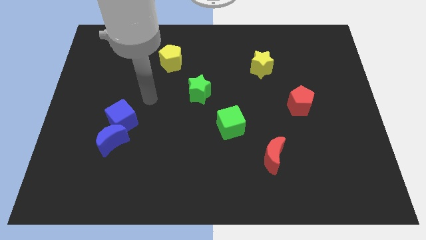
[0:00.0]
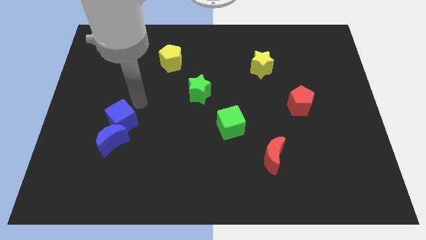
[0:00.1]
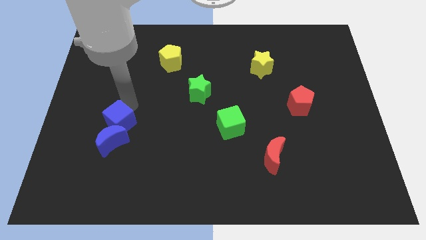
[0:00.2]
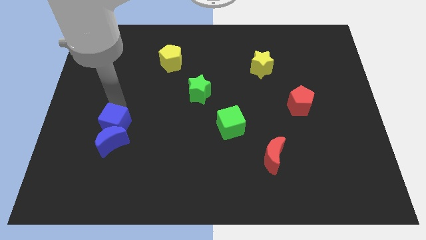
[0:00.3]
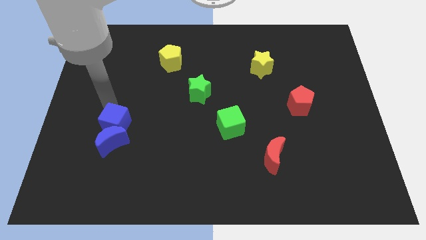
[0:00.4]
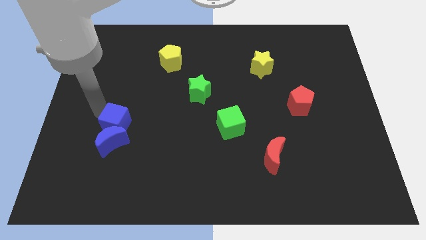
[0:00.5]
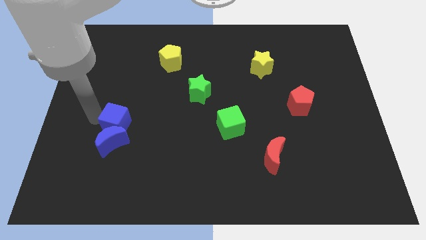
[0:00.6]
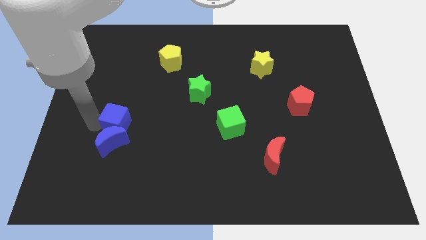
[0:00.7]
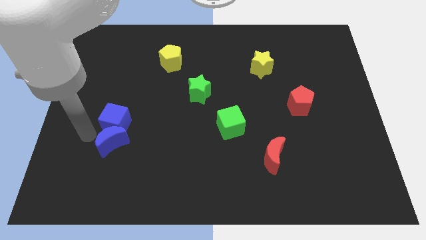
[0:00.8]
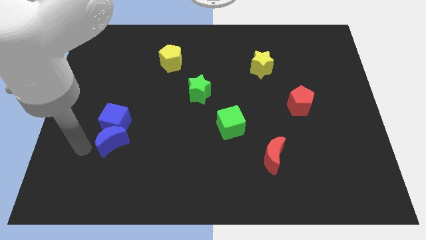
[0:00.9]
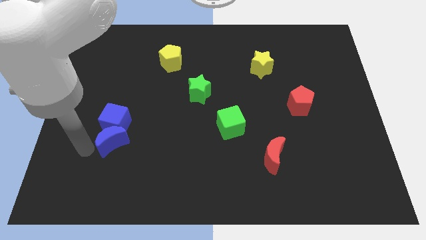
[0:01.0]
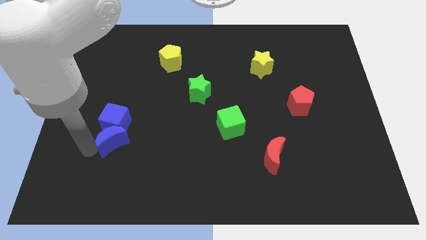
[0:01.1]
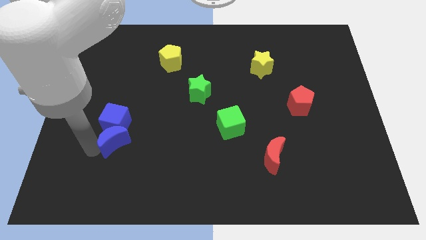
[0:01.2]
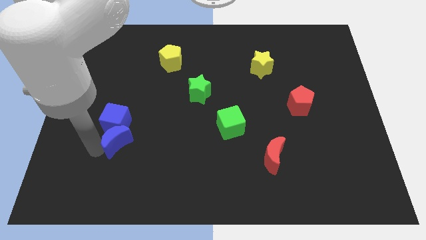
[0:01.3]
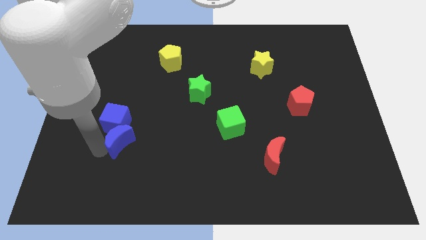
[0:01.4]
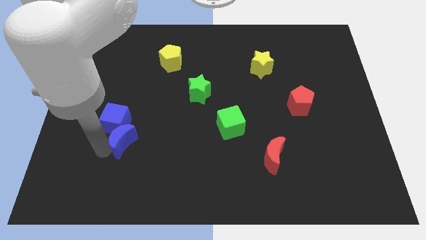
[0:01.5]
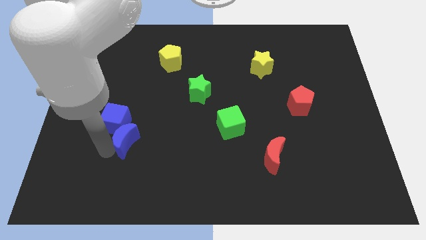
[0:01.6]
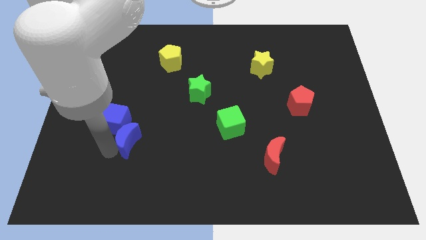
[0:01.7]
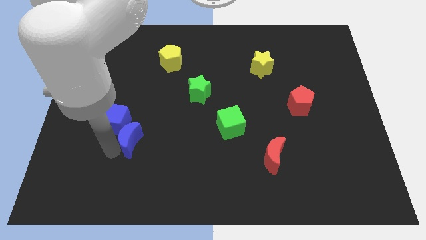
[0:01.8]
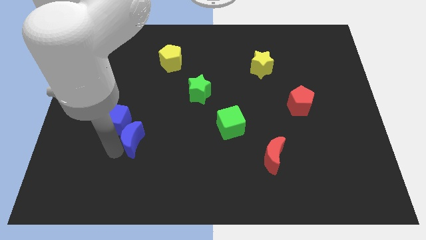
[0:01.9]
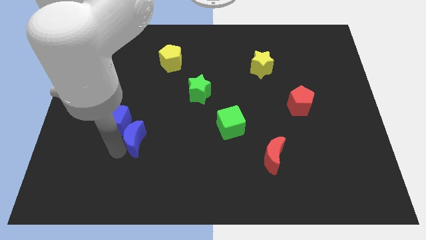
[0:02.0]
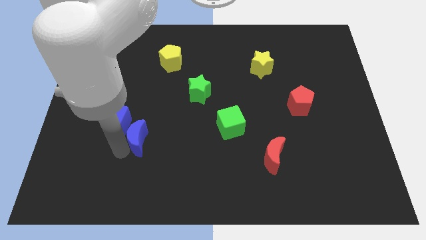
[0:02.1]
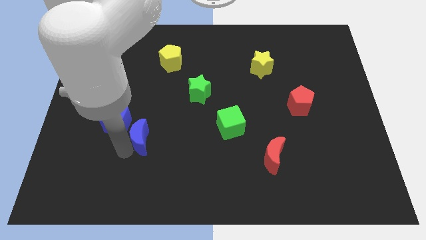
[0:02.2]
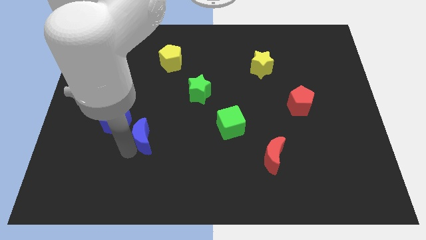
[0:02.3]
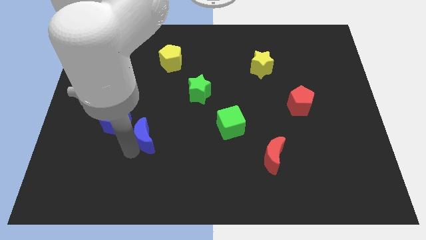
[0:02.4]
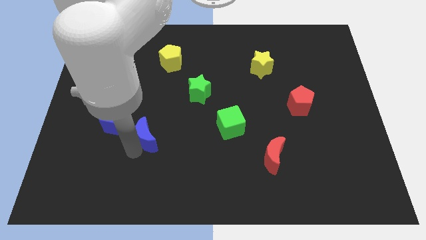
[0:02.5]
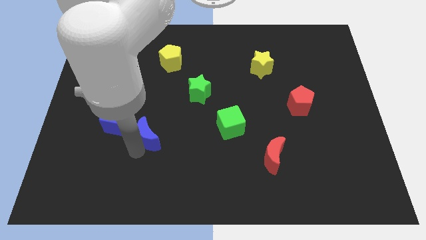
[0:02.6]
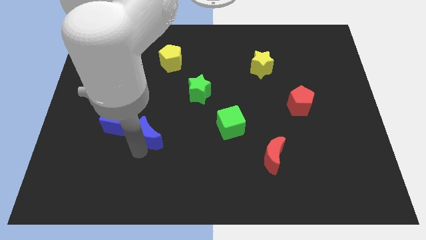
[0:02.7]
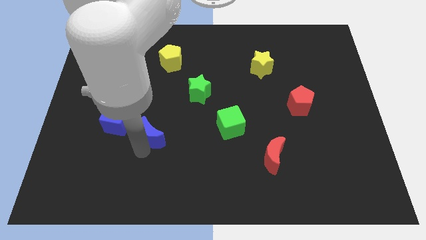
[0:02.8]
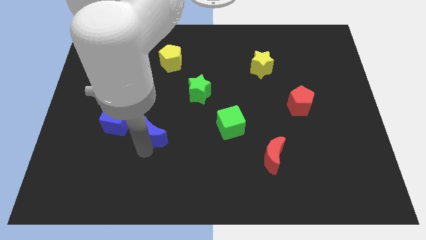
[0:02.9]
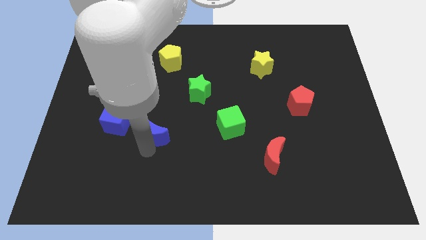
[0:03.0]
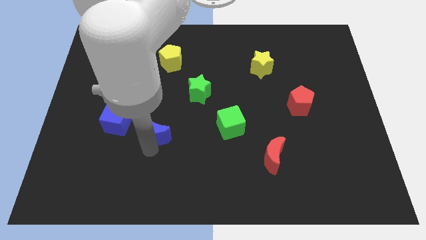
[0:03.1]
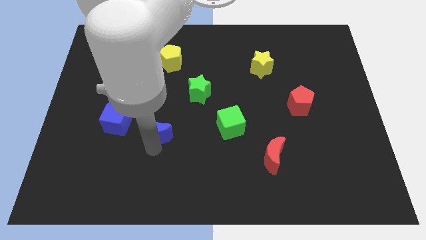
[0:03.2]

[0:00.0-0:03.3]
push the blue moon a little up and to the right

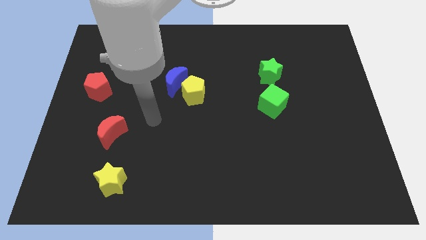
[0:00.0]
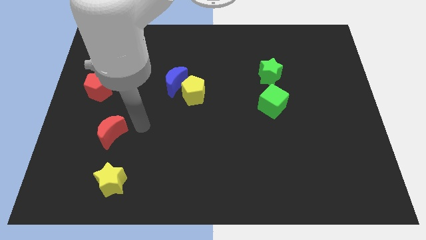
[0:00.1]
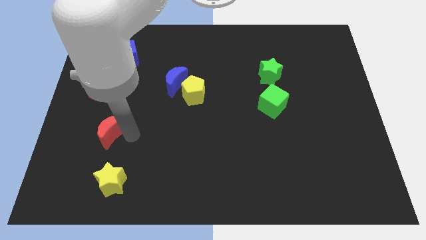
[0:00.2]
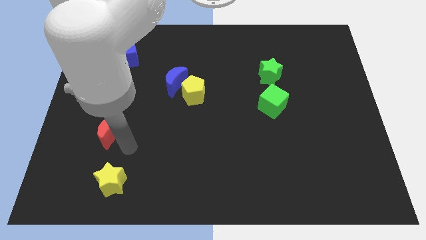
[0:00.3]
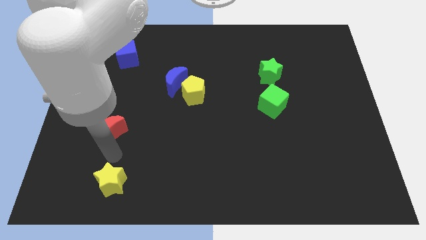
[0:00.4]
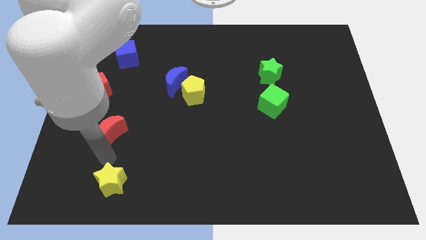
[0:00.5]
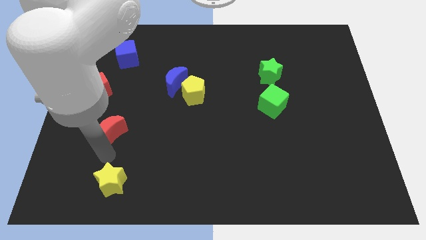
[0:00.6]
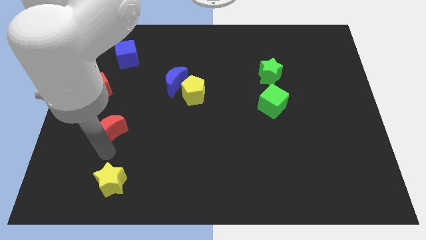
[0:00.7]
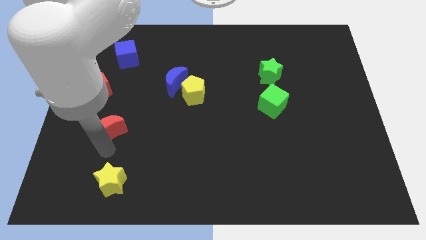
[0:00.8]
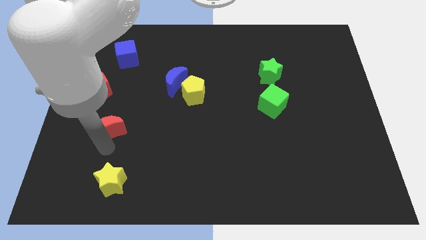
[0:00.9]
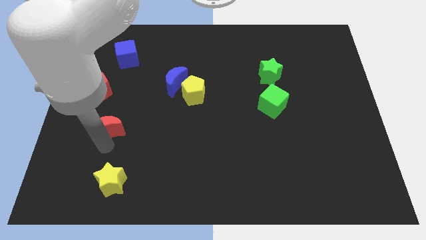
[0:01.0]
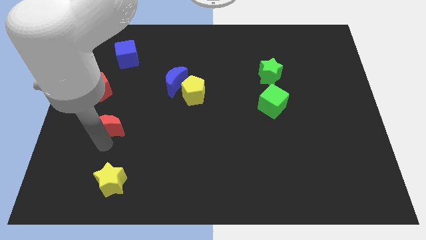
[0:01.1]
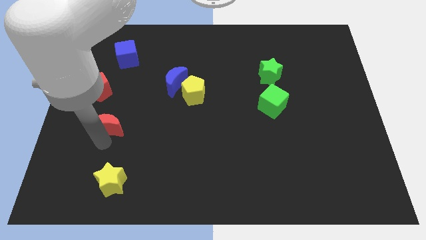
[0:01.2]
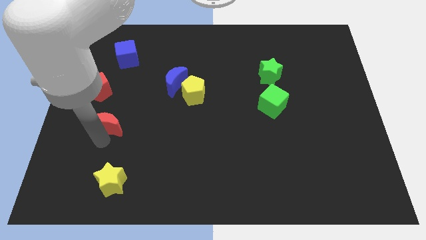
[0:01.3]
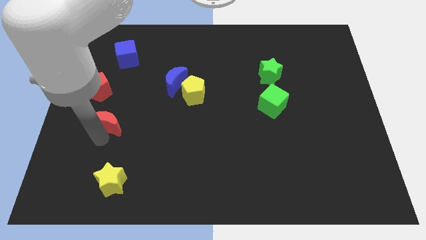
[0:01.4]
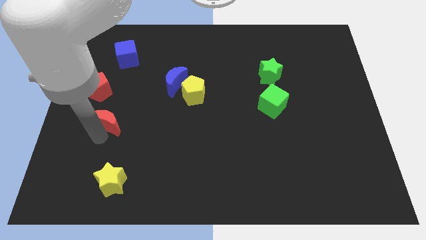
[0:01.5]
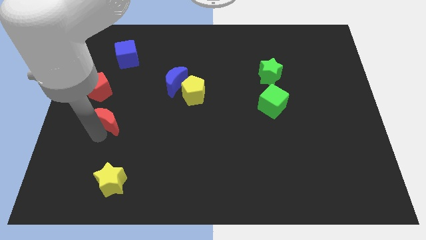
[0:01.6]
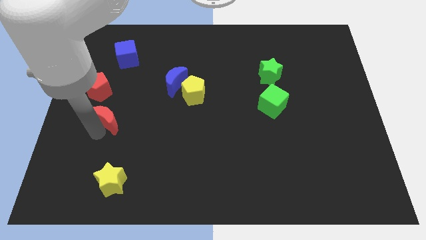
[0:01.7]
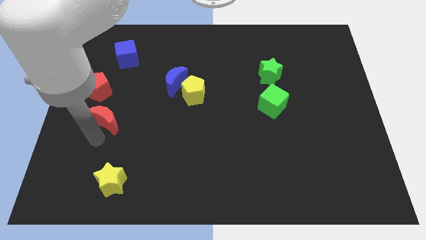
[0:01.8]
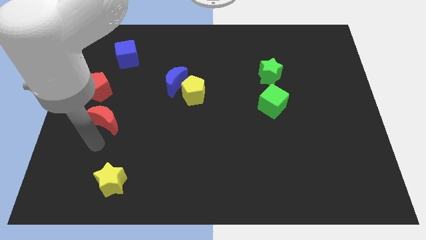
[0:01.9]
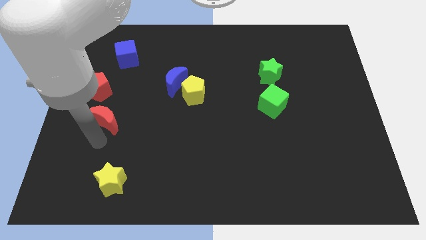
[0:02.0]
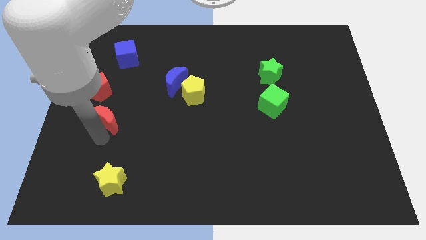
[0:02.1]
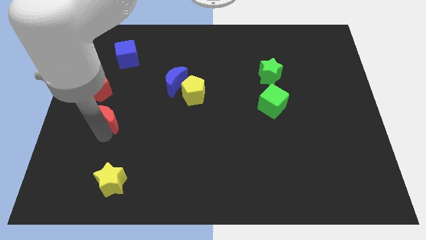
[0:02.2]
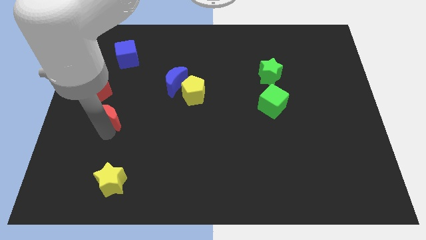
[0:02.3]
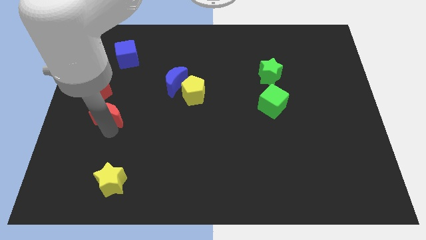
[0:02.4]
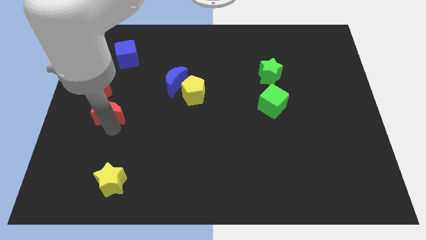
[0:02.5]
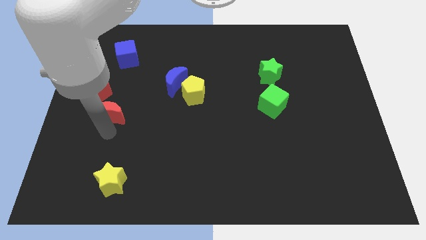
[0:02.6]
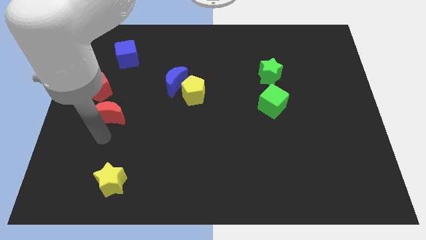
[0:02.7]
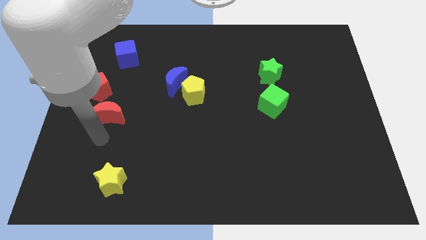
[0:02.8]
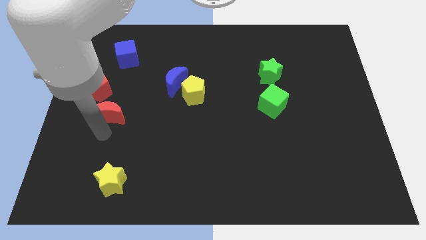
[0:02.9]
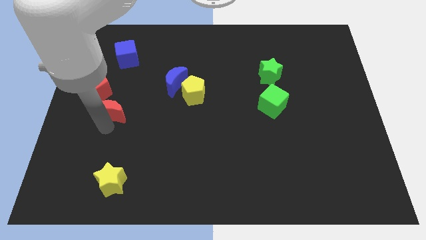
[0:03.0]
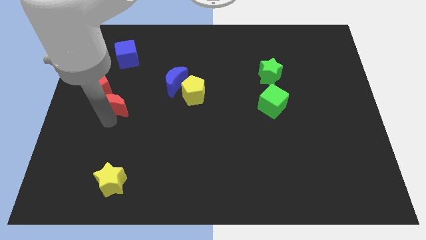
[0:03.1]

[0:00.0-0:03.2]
slightly slide the red moon up

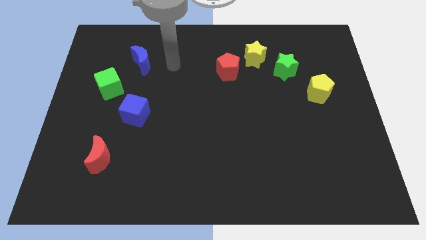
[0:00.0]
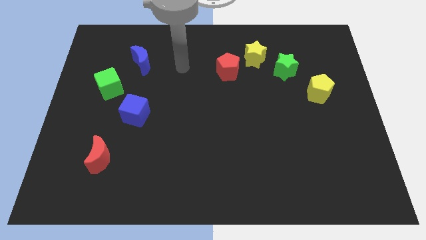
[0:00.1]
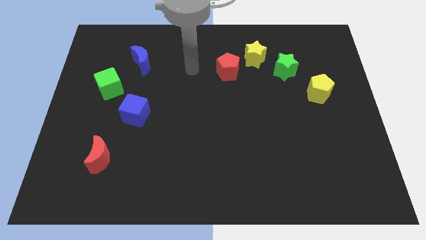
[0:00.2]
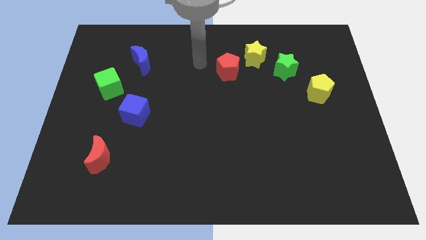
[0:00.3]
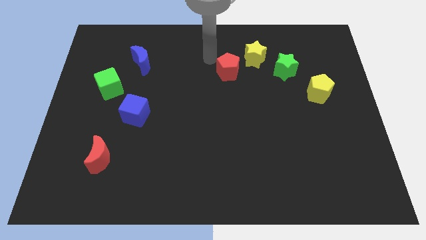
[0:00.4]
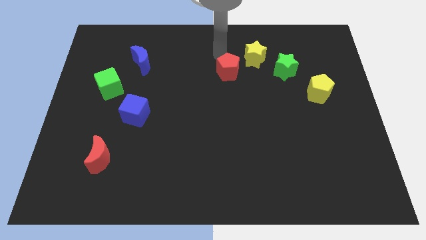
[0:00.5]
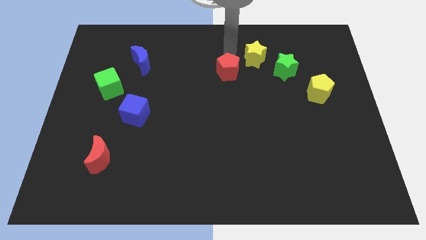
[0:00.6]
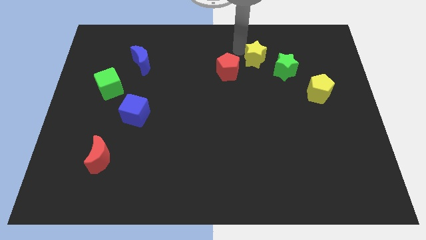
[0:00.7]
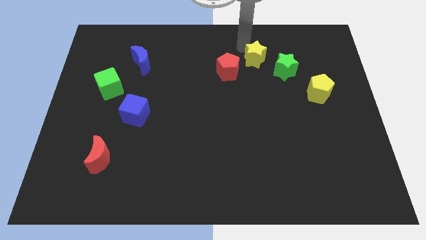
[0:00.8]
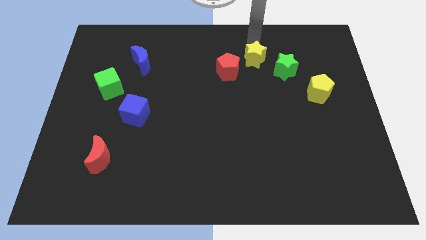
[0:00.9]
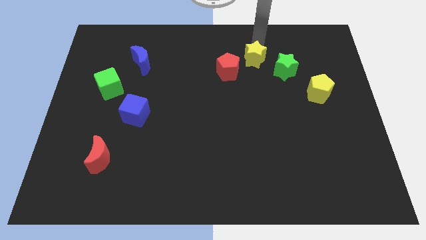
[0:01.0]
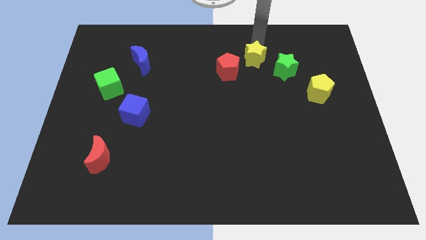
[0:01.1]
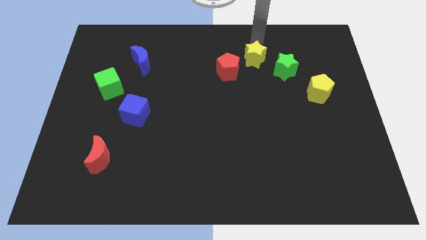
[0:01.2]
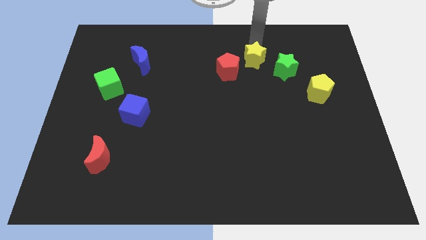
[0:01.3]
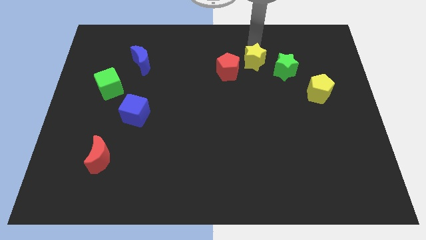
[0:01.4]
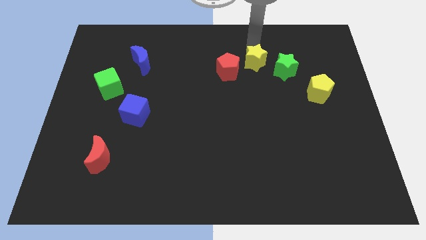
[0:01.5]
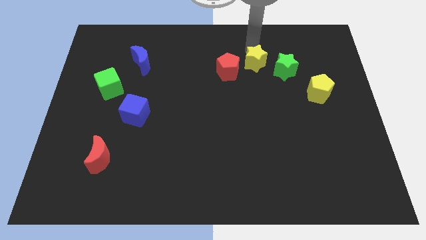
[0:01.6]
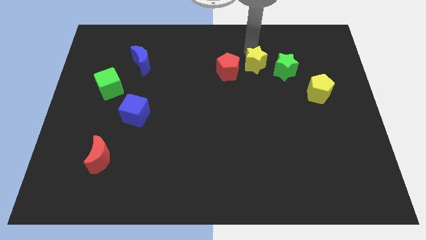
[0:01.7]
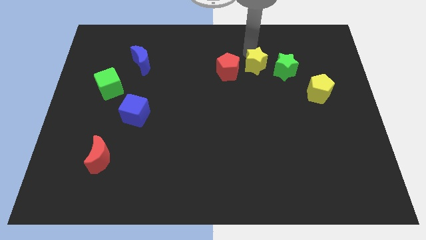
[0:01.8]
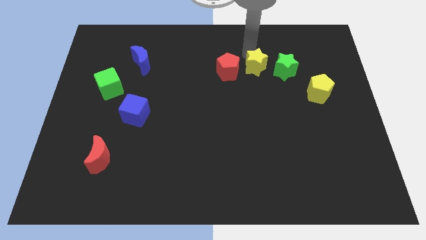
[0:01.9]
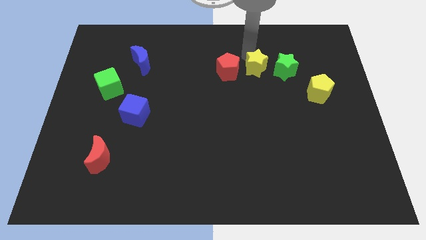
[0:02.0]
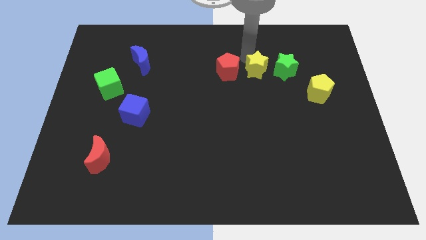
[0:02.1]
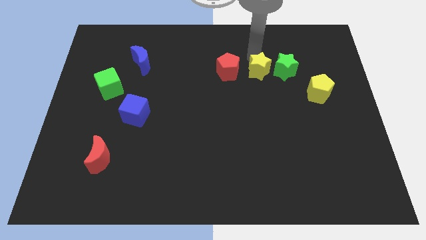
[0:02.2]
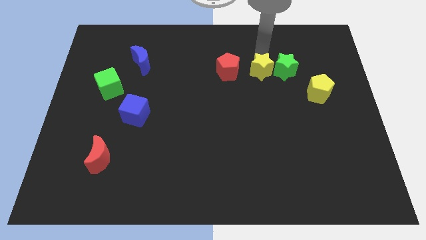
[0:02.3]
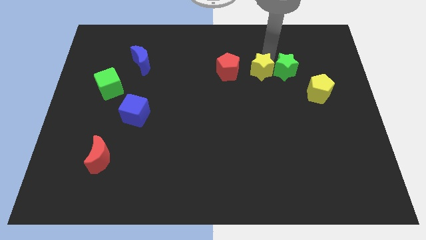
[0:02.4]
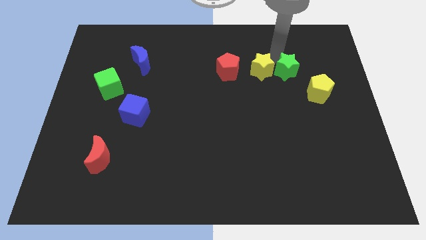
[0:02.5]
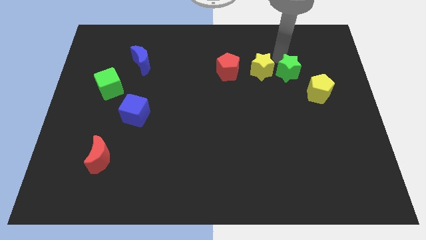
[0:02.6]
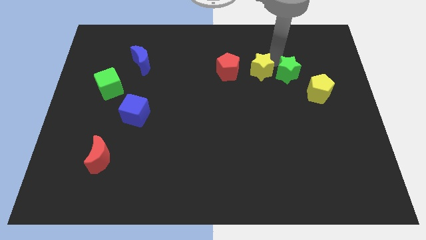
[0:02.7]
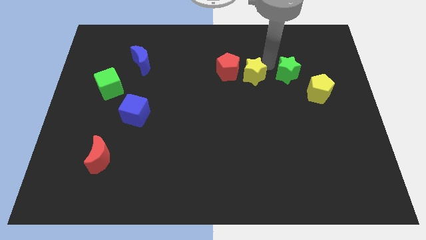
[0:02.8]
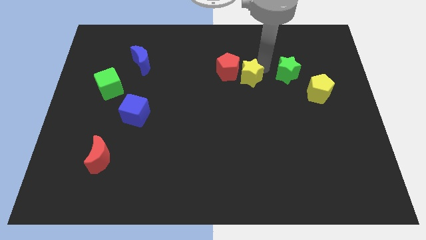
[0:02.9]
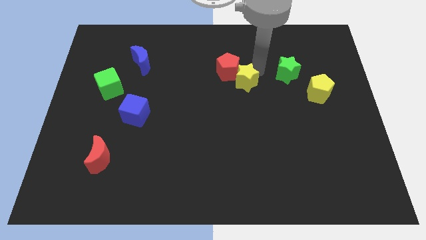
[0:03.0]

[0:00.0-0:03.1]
move the yellow star slightly downwards and left diagonally
